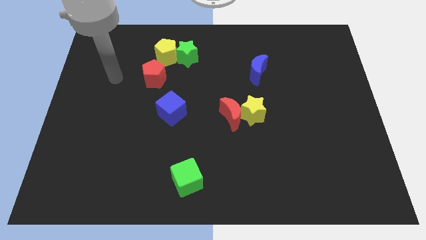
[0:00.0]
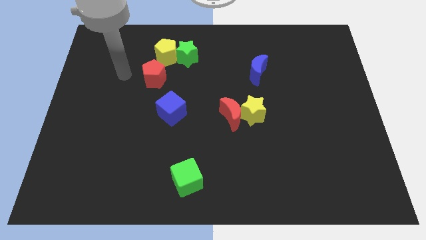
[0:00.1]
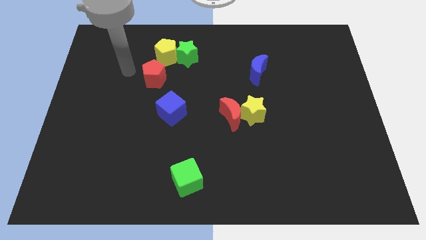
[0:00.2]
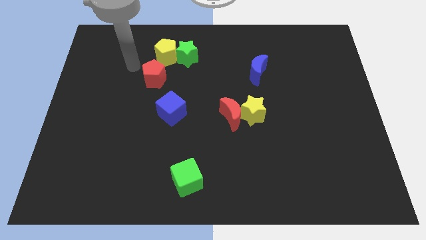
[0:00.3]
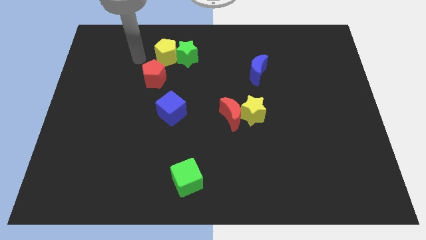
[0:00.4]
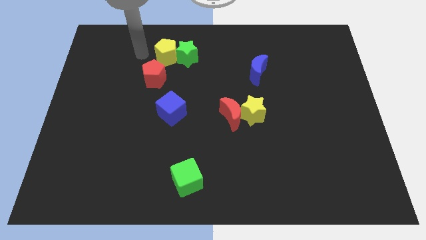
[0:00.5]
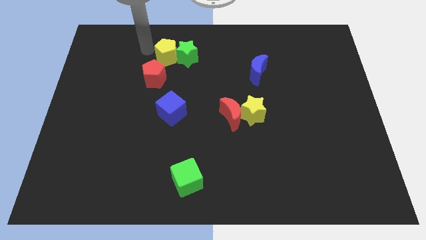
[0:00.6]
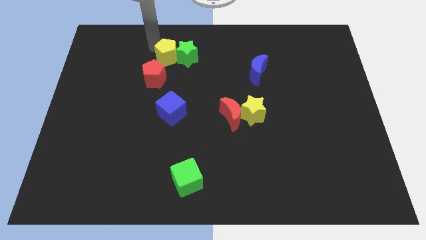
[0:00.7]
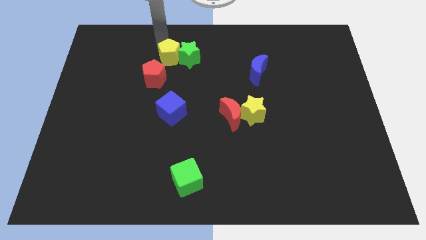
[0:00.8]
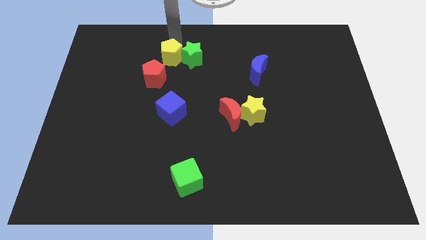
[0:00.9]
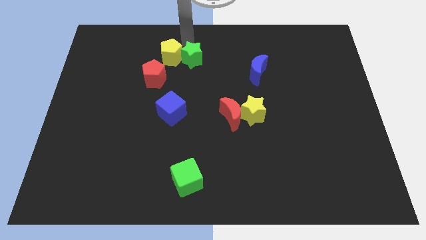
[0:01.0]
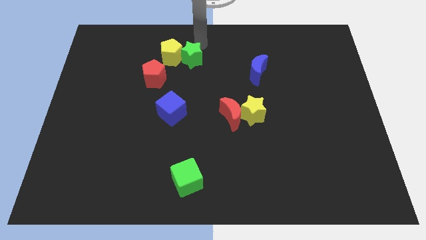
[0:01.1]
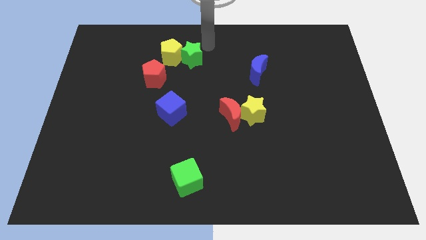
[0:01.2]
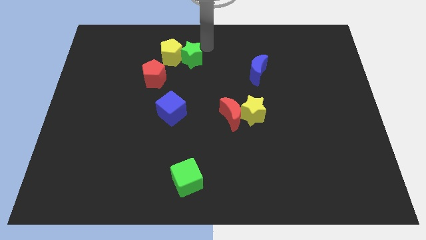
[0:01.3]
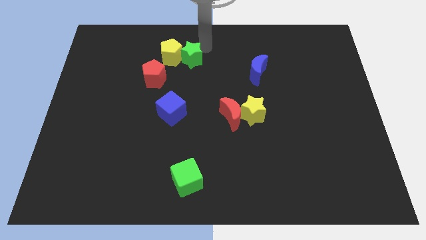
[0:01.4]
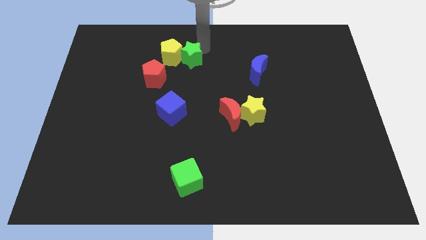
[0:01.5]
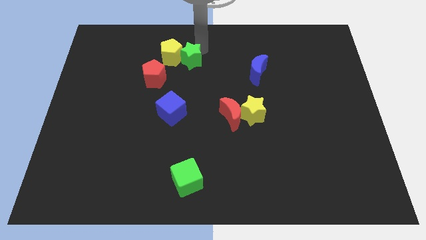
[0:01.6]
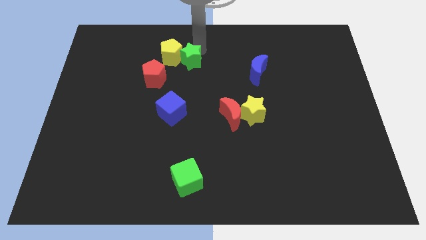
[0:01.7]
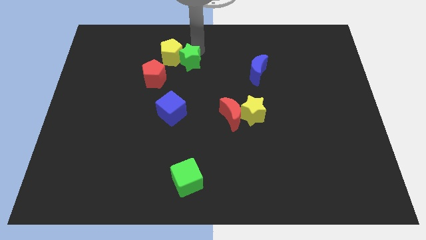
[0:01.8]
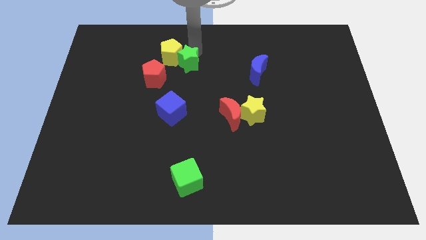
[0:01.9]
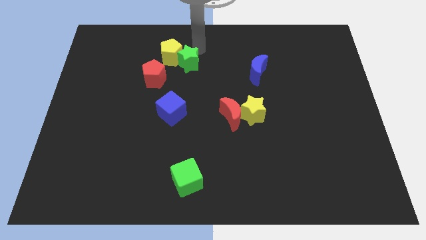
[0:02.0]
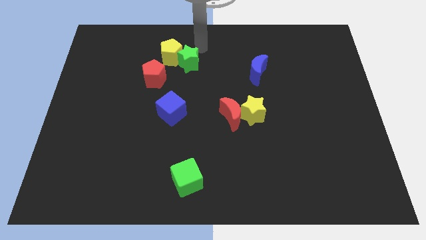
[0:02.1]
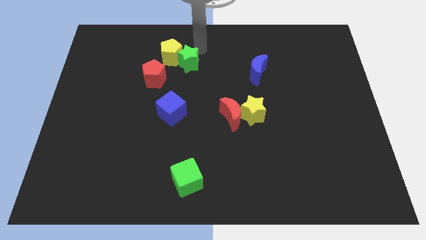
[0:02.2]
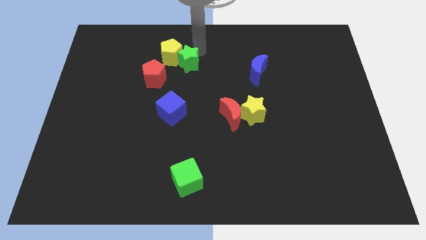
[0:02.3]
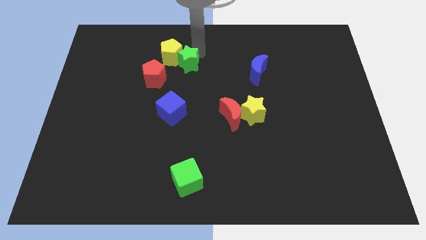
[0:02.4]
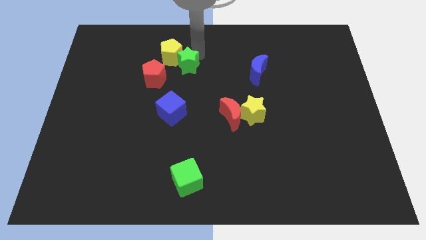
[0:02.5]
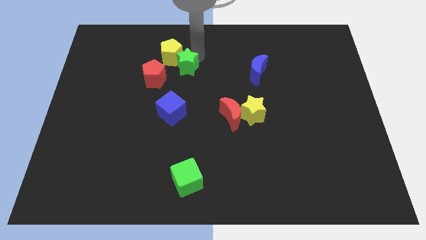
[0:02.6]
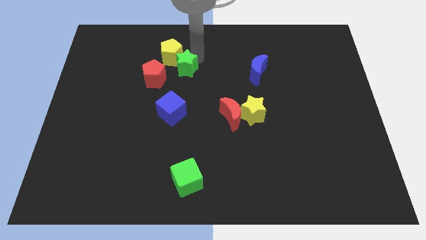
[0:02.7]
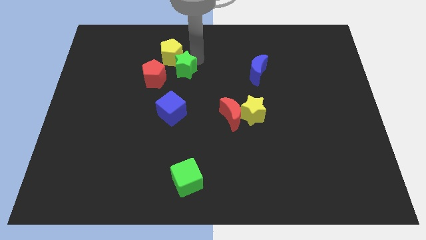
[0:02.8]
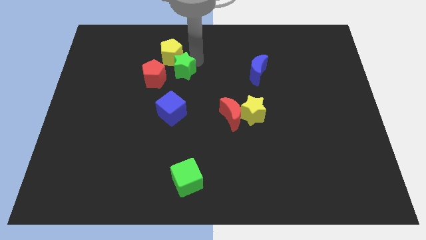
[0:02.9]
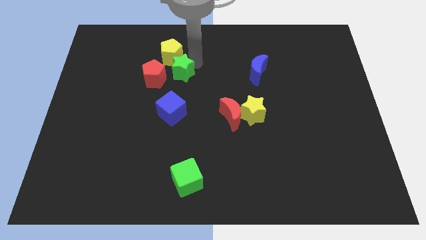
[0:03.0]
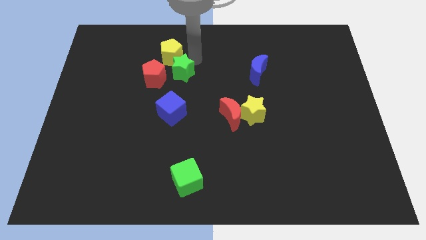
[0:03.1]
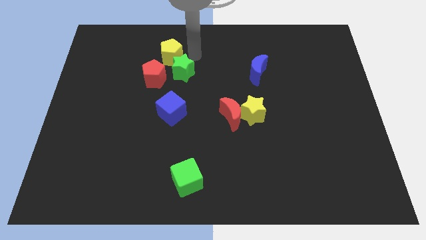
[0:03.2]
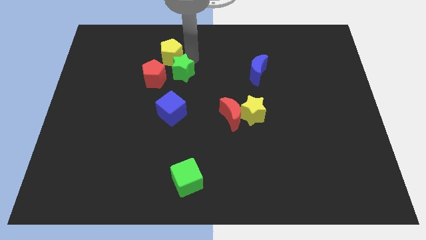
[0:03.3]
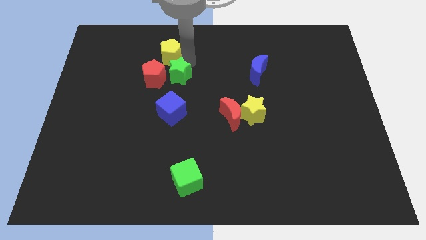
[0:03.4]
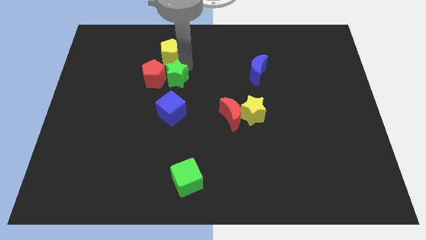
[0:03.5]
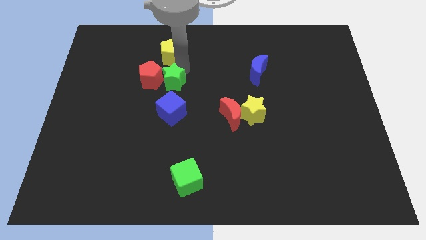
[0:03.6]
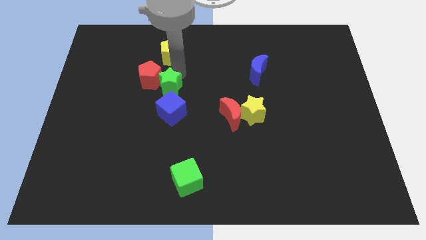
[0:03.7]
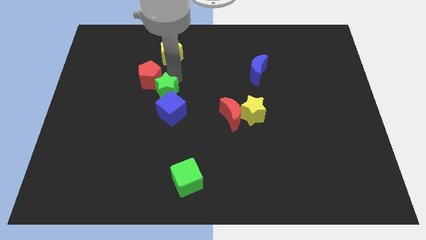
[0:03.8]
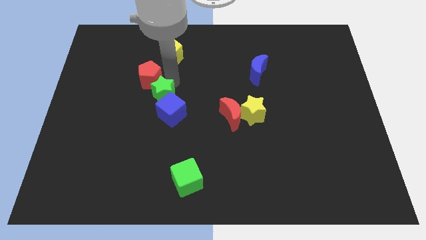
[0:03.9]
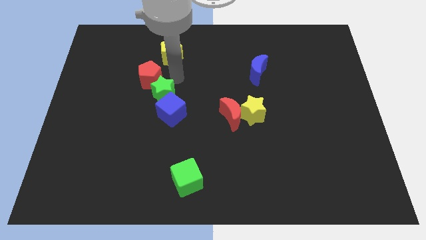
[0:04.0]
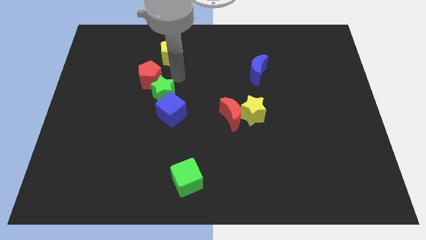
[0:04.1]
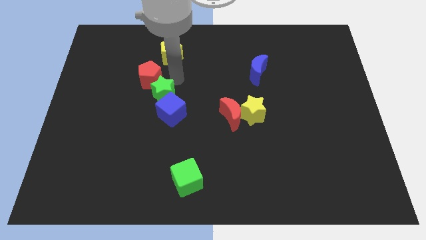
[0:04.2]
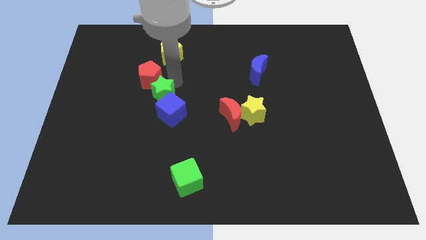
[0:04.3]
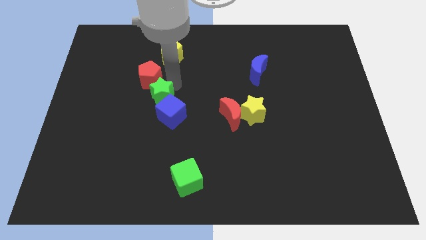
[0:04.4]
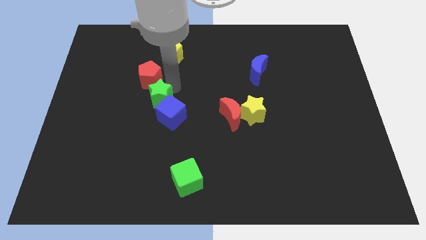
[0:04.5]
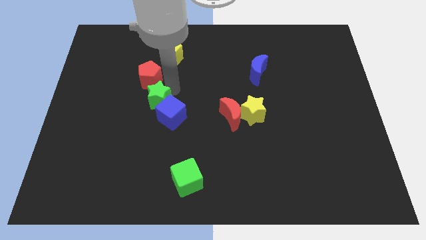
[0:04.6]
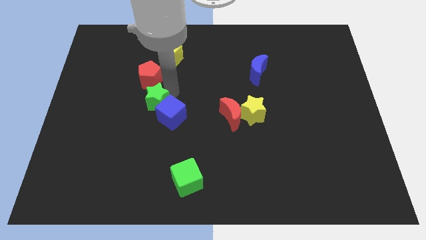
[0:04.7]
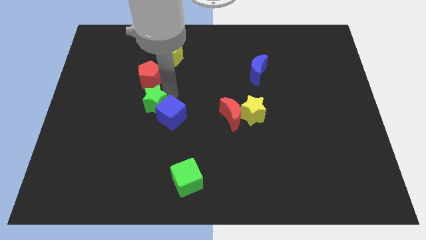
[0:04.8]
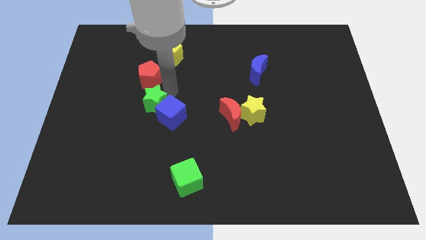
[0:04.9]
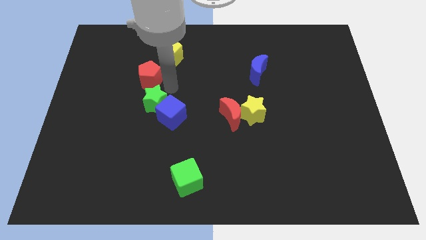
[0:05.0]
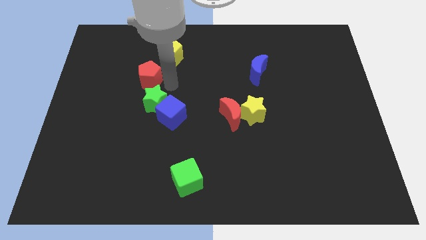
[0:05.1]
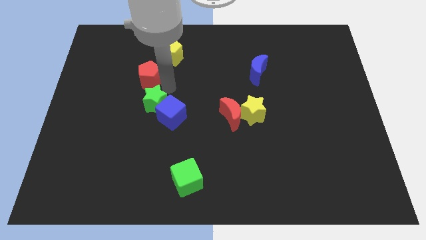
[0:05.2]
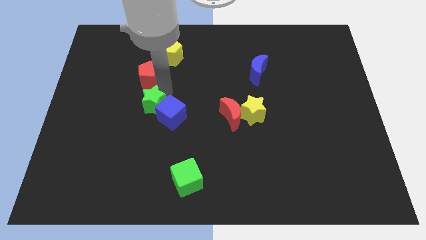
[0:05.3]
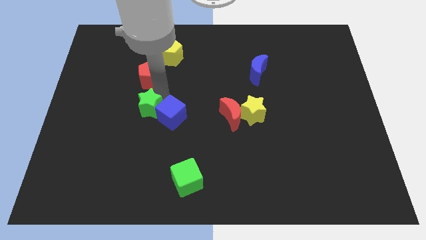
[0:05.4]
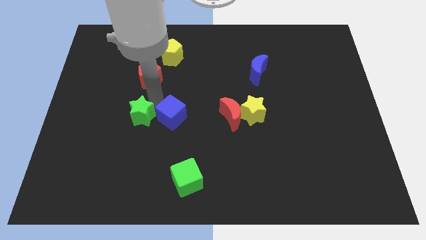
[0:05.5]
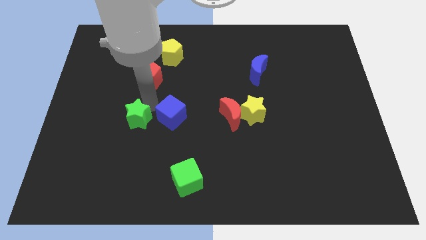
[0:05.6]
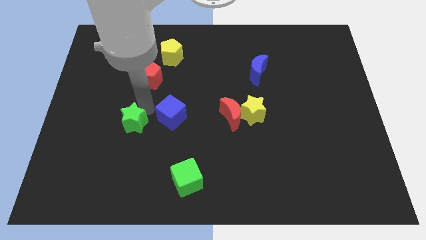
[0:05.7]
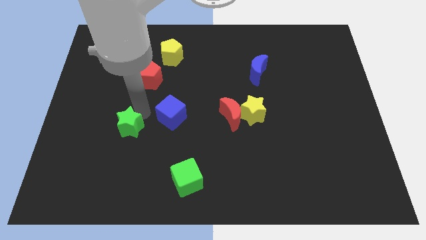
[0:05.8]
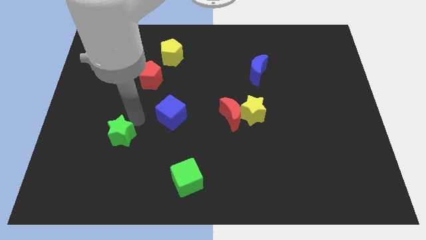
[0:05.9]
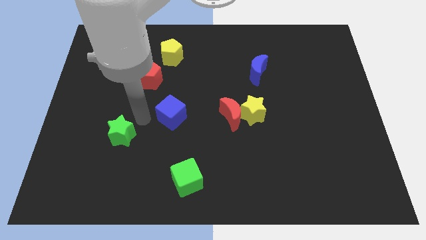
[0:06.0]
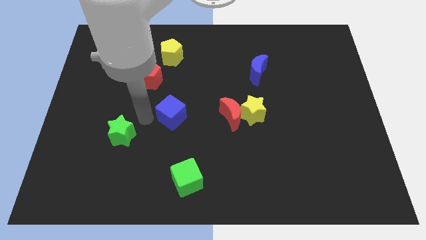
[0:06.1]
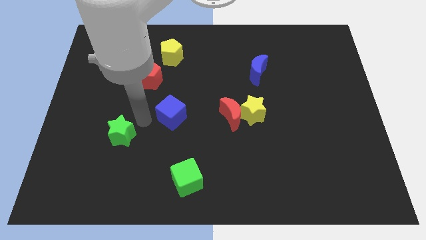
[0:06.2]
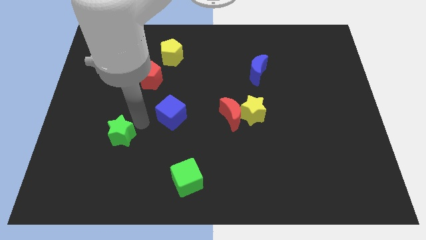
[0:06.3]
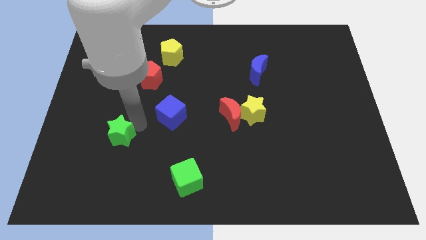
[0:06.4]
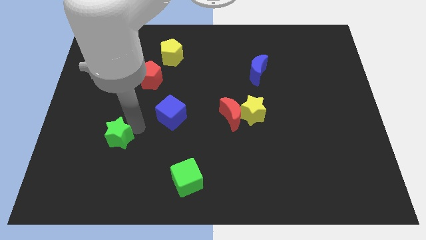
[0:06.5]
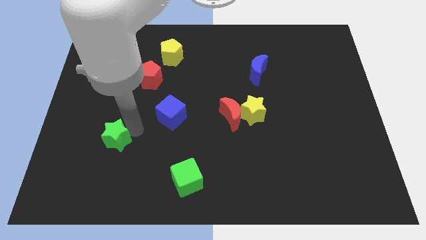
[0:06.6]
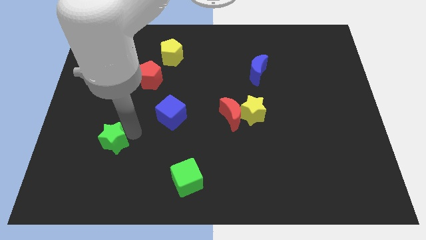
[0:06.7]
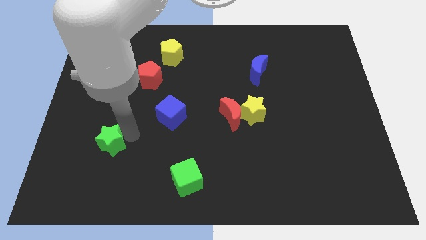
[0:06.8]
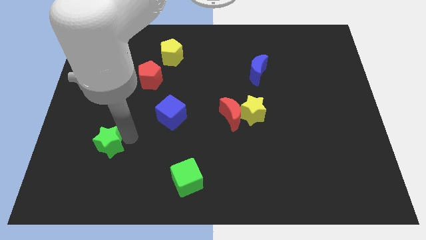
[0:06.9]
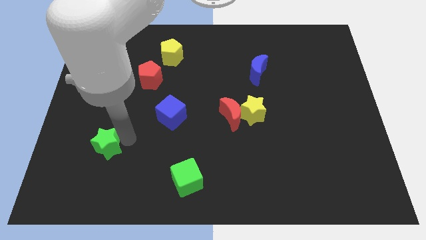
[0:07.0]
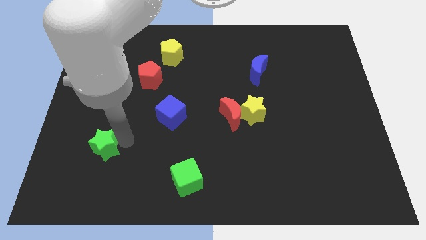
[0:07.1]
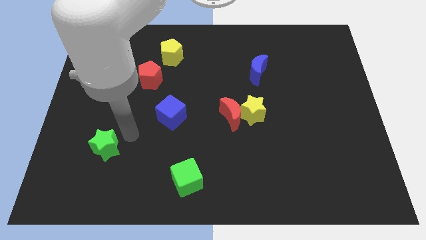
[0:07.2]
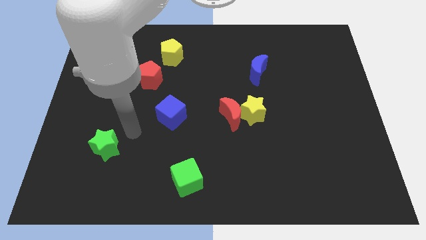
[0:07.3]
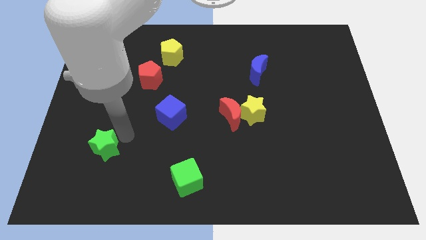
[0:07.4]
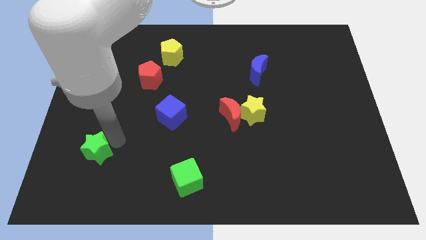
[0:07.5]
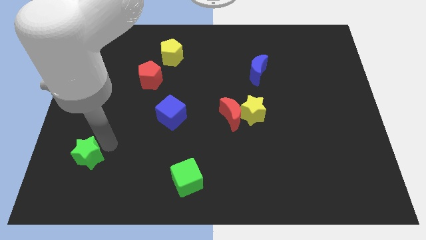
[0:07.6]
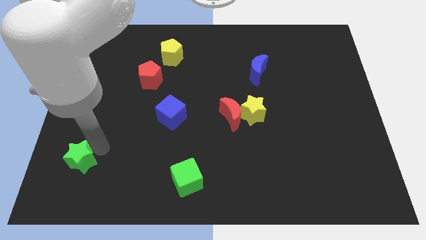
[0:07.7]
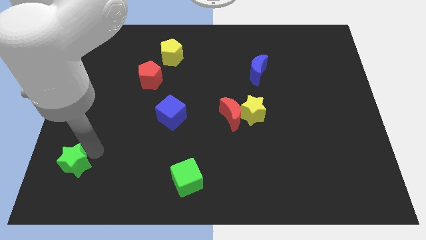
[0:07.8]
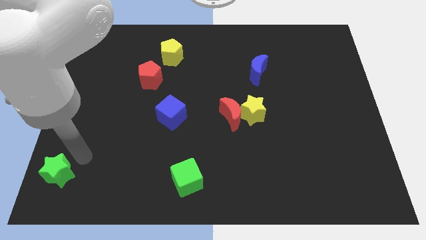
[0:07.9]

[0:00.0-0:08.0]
put the green star to the bottom left corner

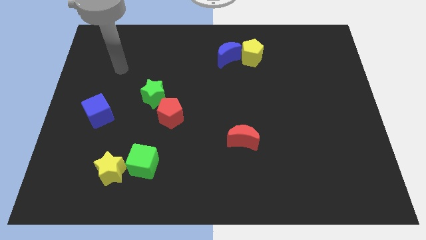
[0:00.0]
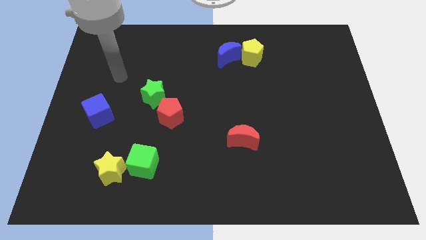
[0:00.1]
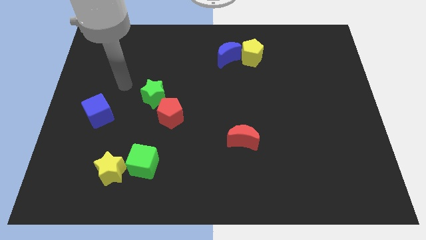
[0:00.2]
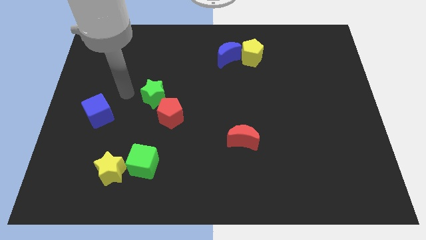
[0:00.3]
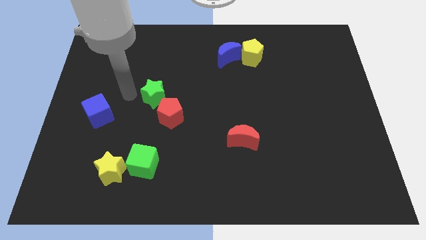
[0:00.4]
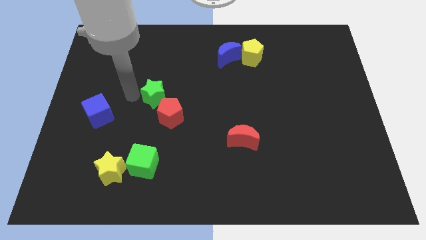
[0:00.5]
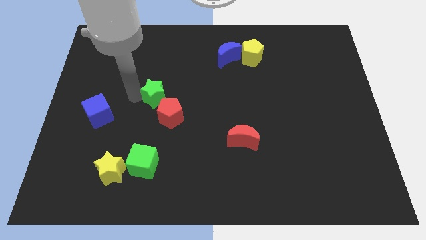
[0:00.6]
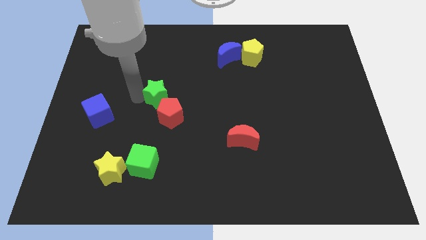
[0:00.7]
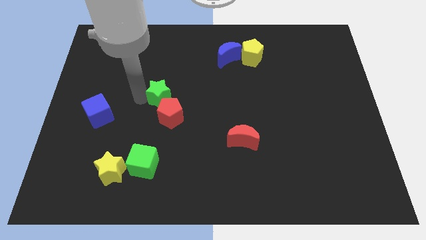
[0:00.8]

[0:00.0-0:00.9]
move the green star to the center of the board
